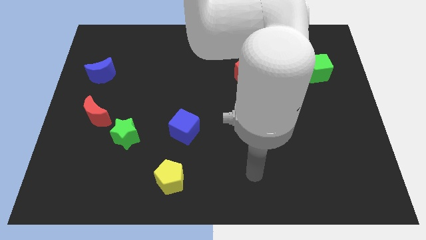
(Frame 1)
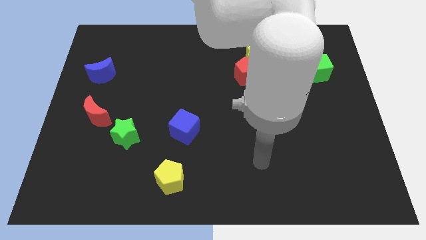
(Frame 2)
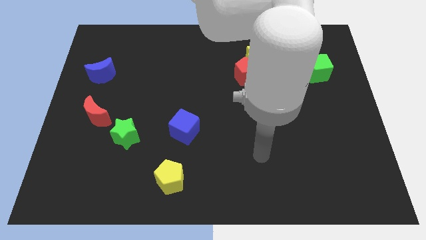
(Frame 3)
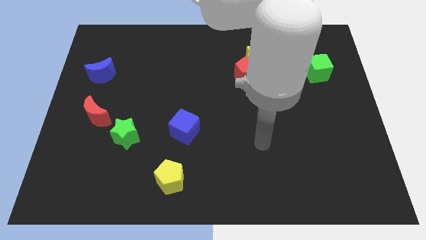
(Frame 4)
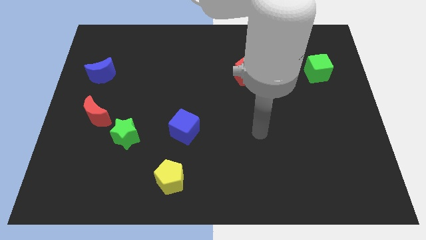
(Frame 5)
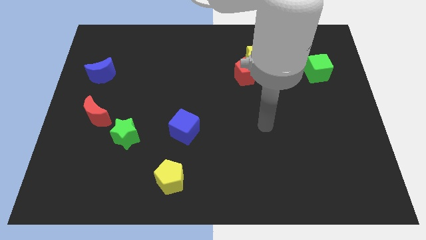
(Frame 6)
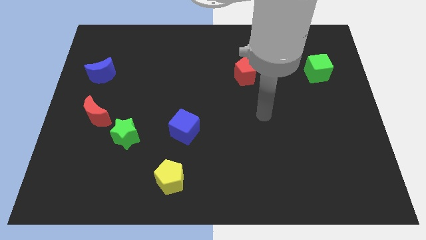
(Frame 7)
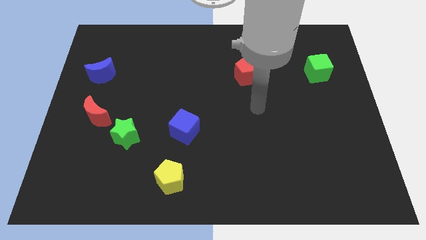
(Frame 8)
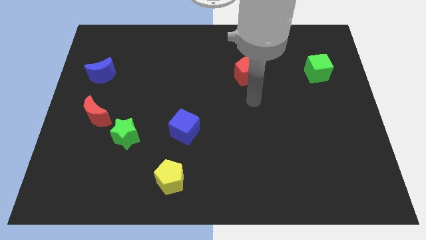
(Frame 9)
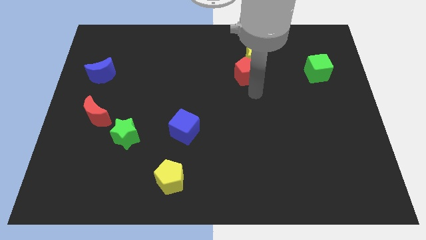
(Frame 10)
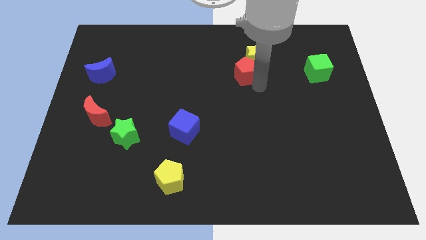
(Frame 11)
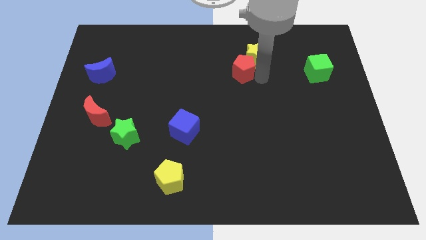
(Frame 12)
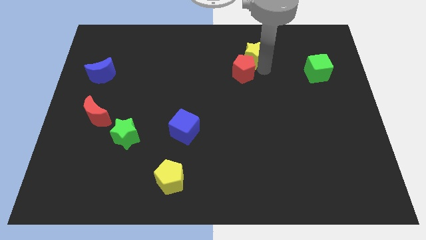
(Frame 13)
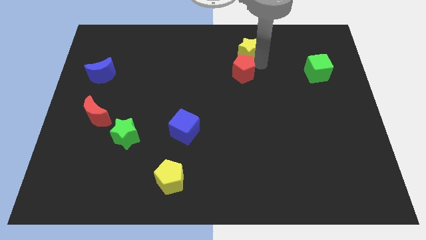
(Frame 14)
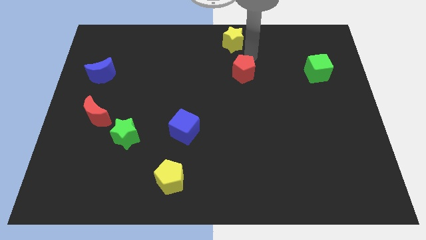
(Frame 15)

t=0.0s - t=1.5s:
separate the red pentagon from the yellow star

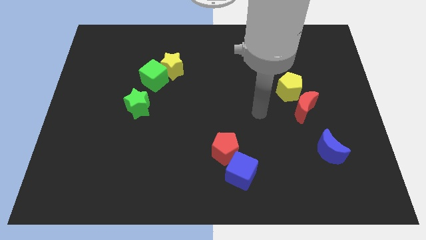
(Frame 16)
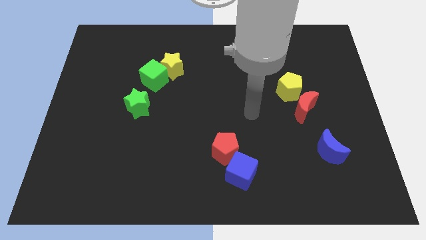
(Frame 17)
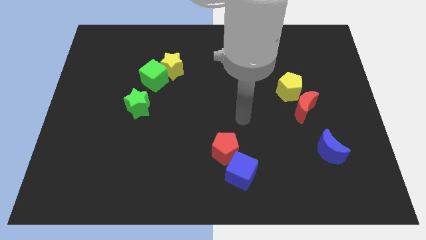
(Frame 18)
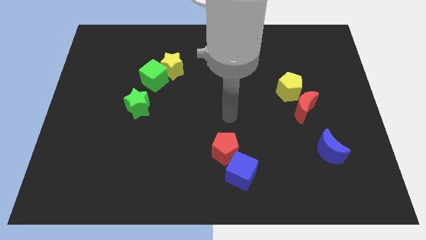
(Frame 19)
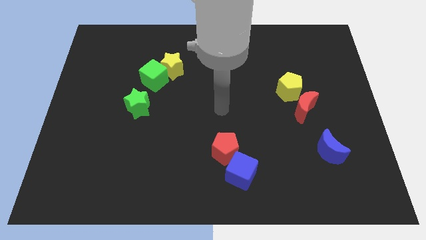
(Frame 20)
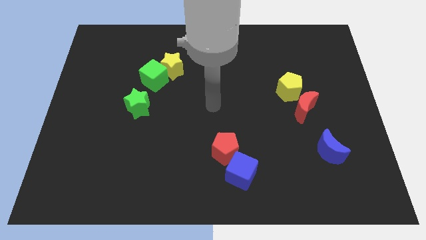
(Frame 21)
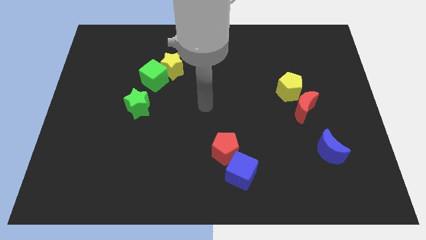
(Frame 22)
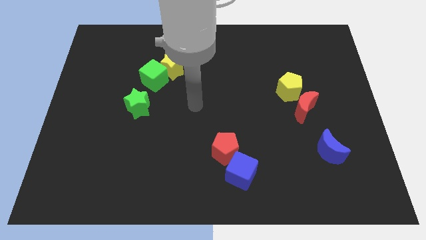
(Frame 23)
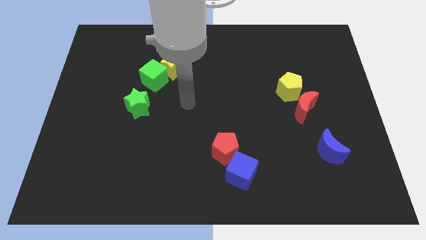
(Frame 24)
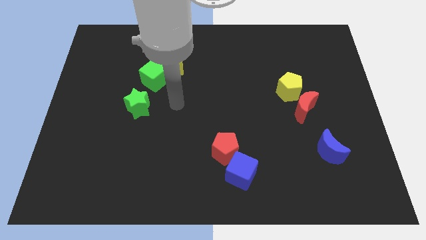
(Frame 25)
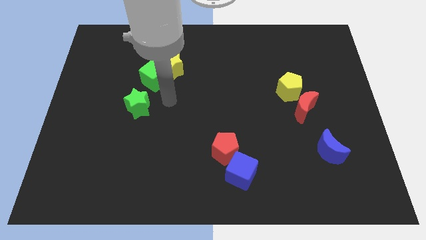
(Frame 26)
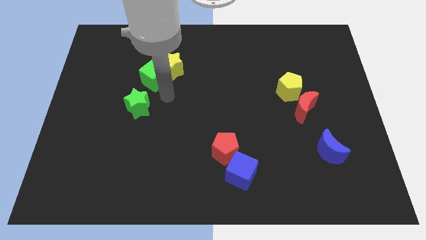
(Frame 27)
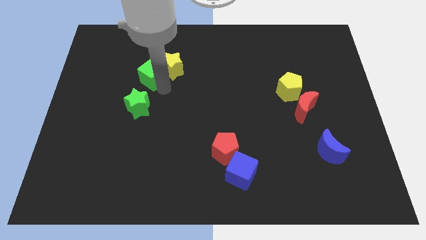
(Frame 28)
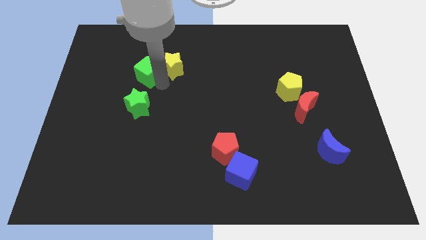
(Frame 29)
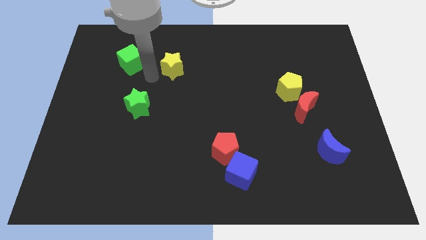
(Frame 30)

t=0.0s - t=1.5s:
separate the yellow star from the green cube

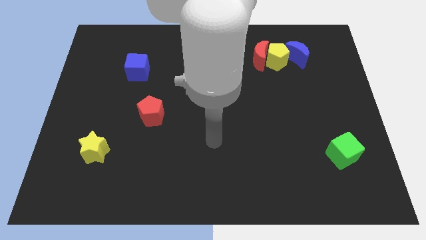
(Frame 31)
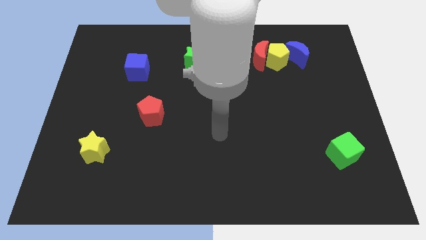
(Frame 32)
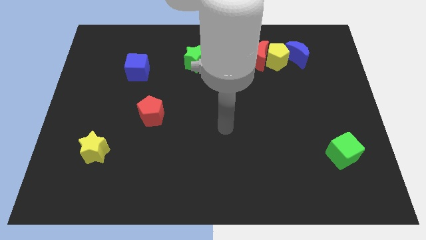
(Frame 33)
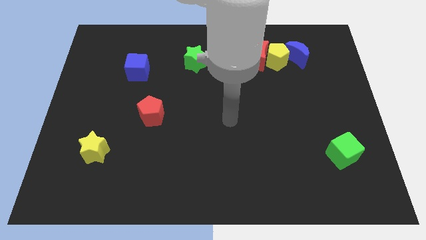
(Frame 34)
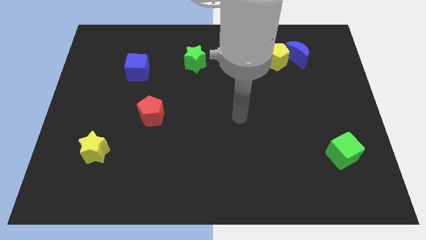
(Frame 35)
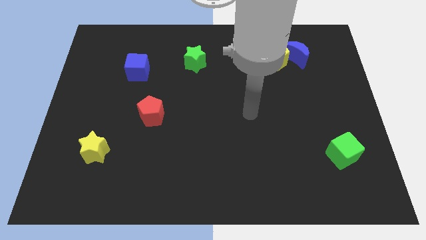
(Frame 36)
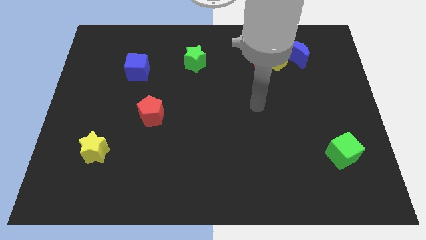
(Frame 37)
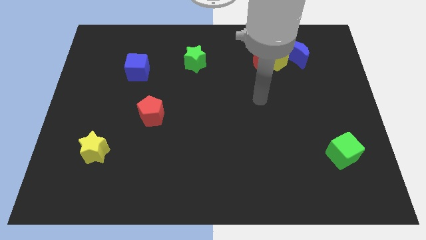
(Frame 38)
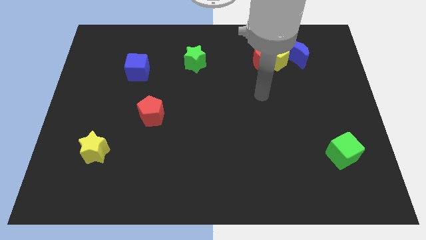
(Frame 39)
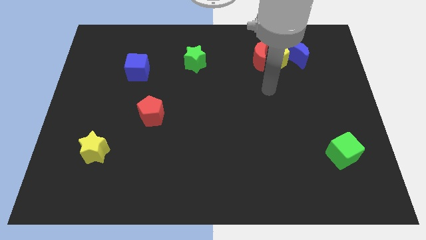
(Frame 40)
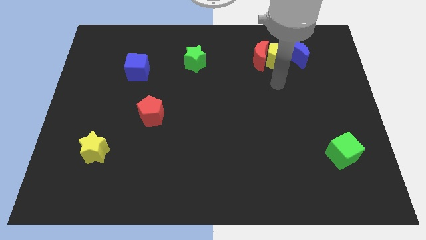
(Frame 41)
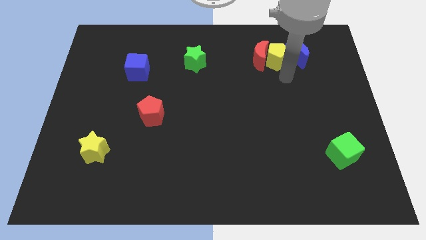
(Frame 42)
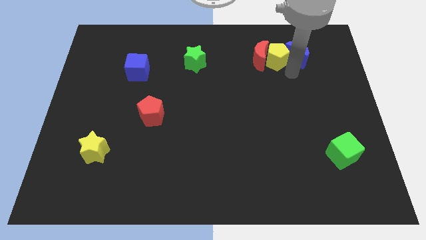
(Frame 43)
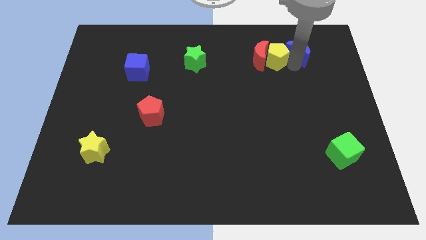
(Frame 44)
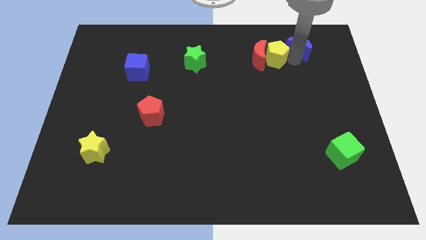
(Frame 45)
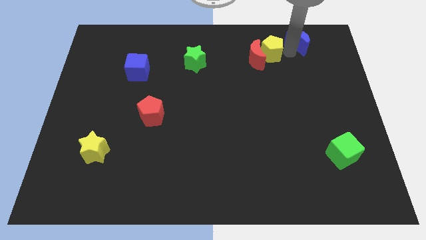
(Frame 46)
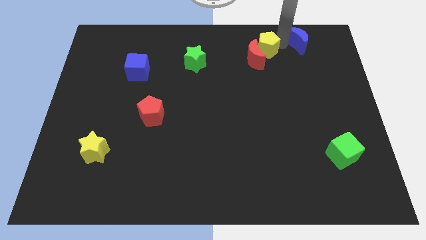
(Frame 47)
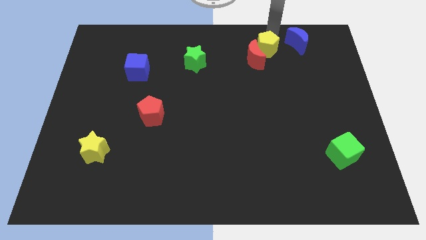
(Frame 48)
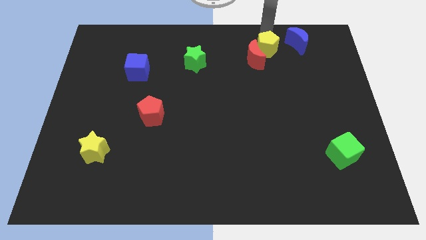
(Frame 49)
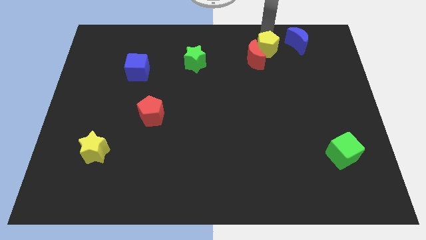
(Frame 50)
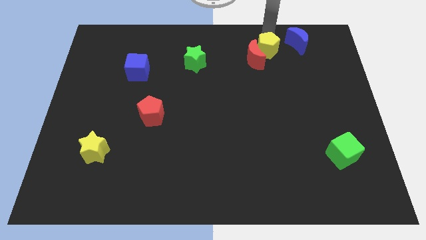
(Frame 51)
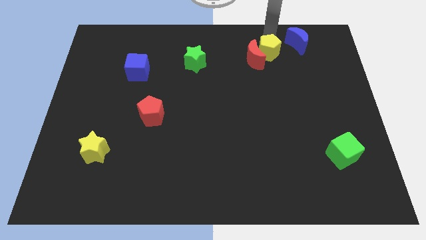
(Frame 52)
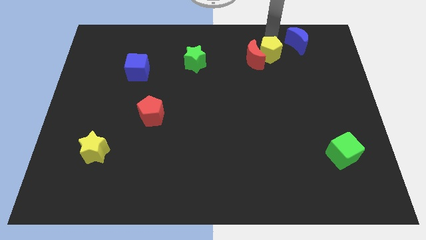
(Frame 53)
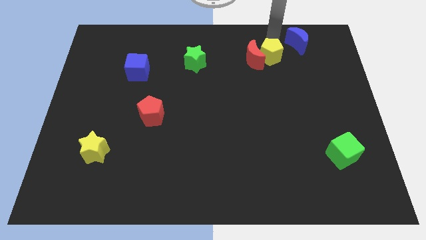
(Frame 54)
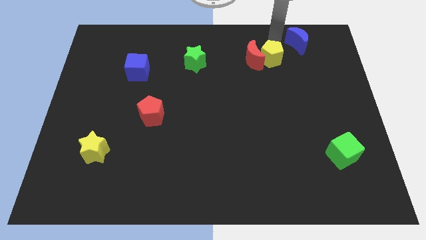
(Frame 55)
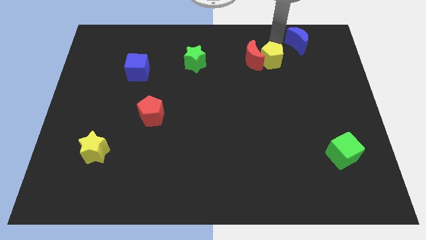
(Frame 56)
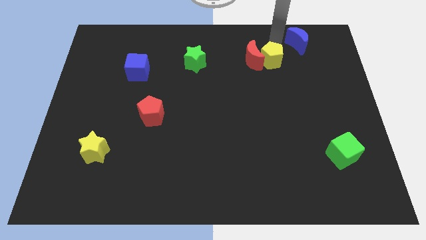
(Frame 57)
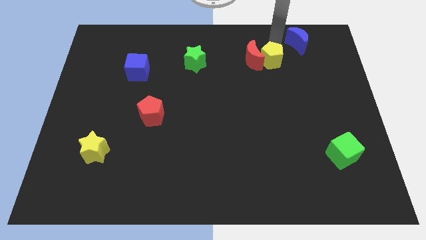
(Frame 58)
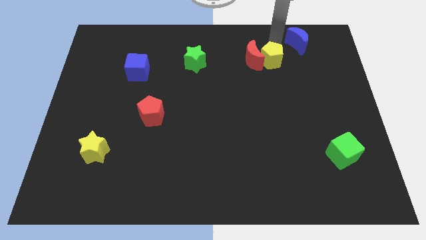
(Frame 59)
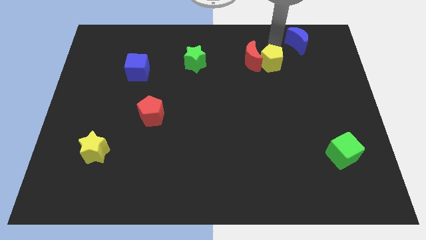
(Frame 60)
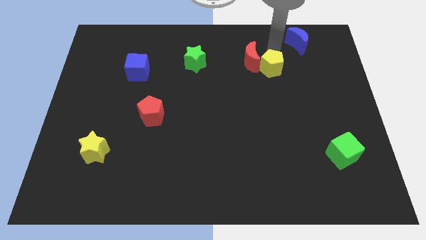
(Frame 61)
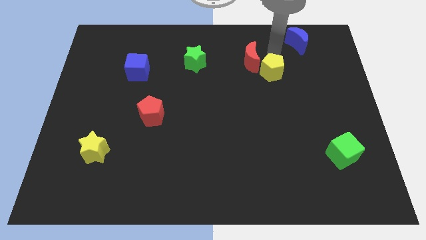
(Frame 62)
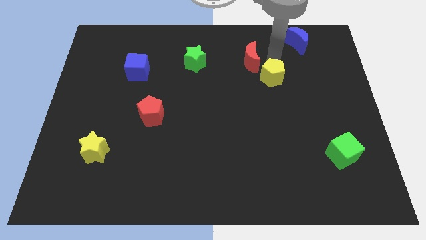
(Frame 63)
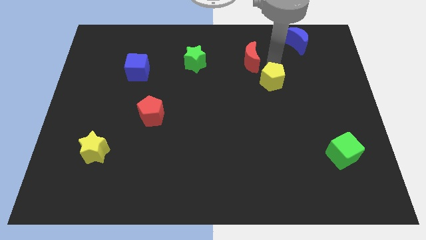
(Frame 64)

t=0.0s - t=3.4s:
move the yellow pentagon away from the red moon and blue moon

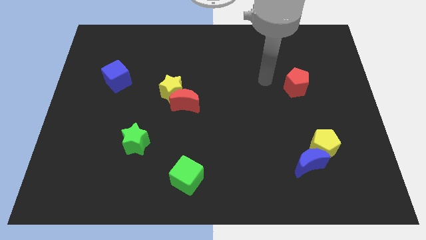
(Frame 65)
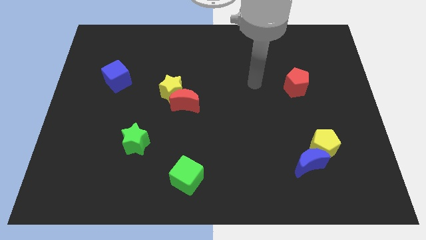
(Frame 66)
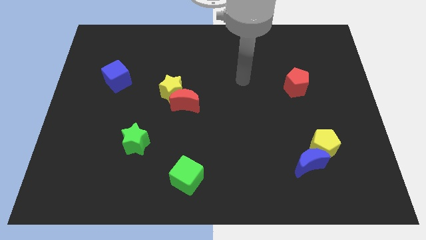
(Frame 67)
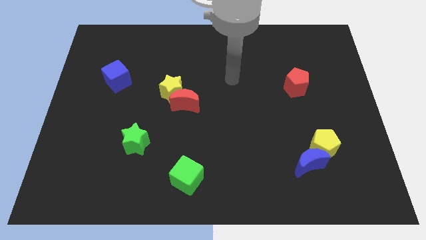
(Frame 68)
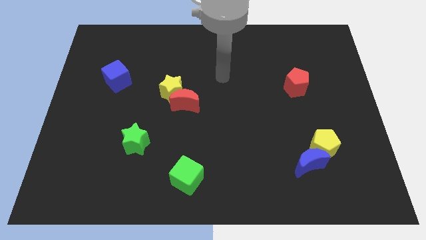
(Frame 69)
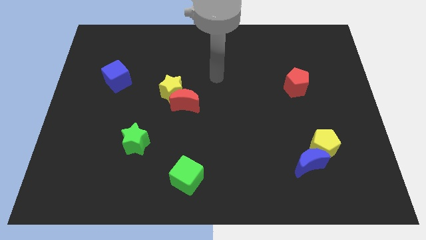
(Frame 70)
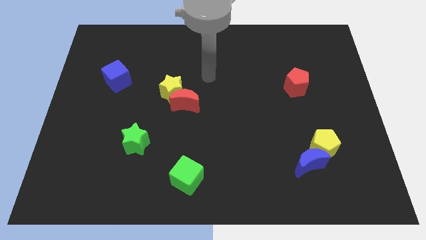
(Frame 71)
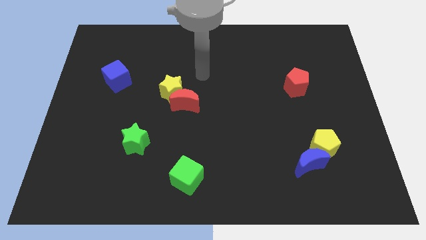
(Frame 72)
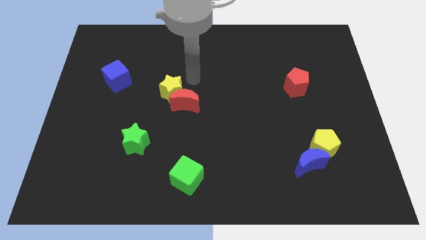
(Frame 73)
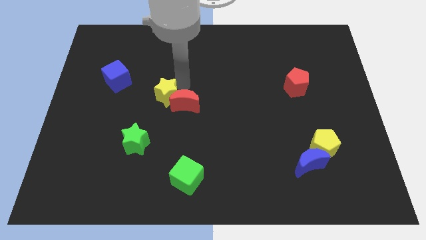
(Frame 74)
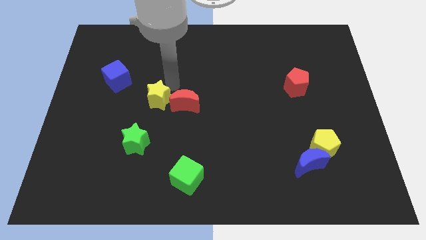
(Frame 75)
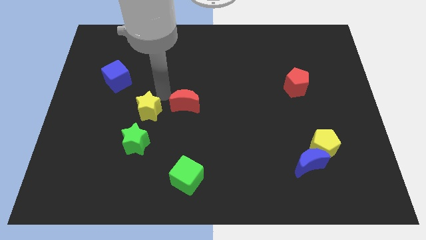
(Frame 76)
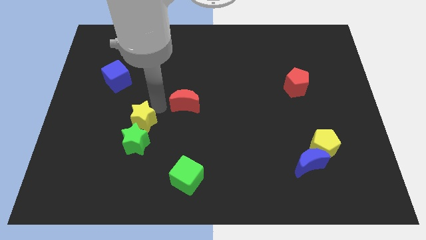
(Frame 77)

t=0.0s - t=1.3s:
separate the red moon from the yellow star

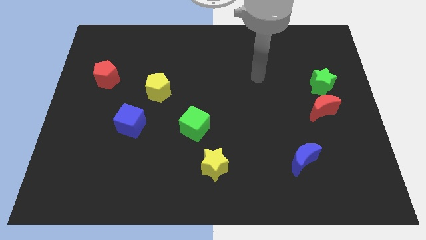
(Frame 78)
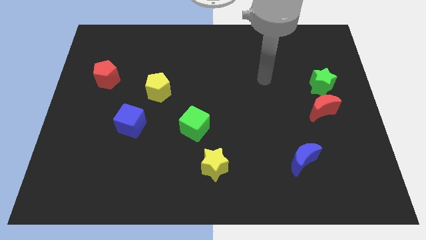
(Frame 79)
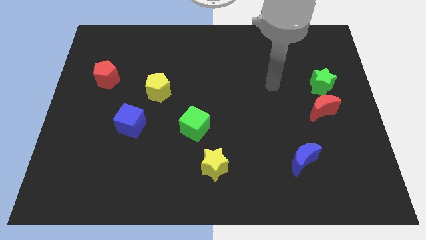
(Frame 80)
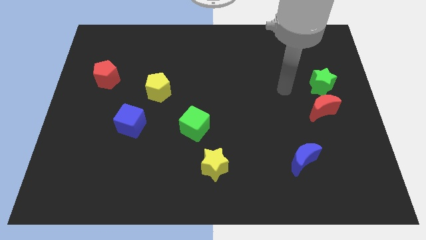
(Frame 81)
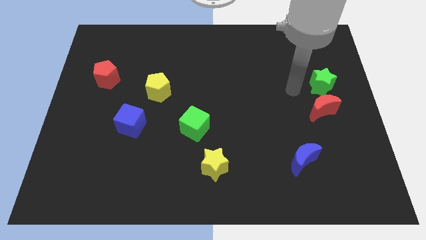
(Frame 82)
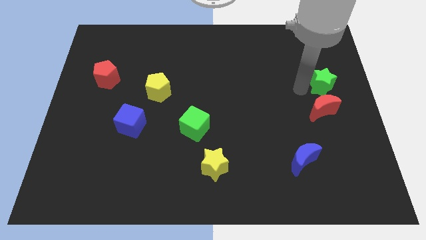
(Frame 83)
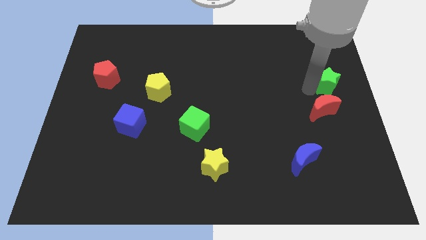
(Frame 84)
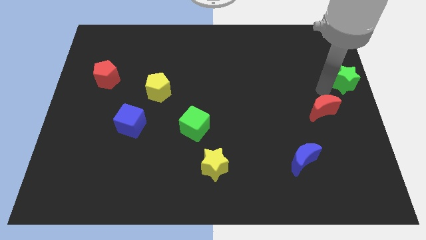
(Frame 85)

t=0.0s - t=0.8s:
pull the red moon apart from the green star

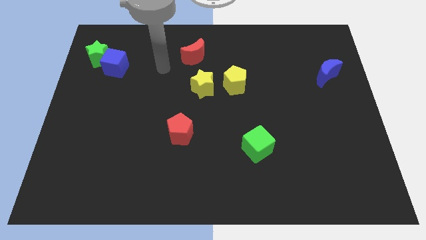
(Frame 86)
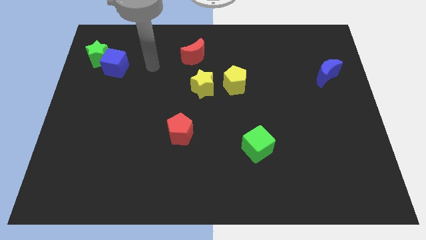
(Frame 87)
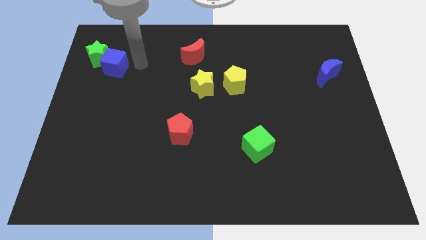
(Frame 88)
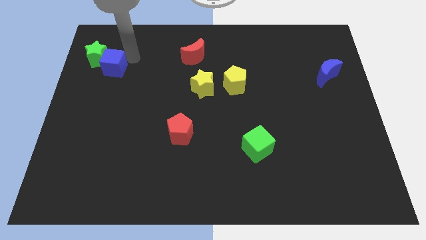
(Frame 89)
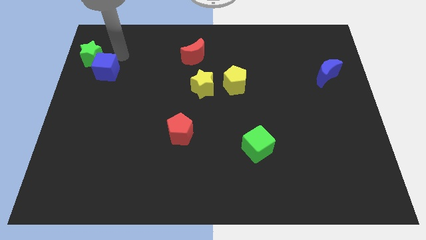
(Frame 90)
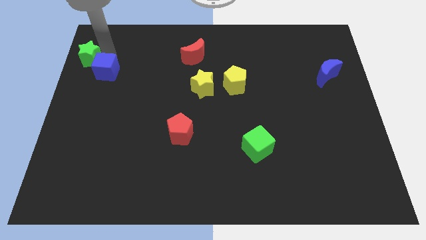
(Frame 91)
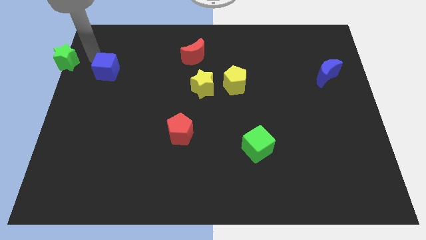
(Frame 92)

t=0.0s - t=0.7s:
move the blue cube away from the green star
